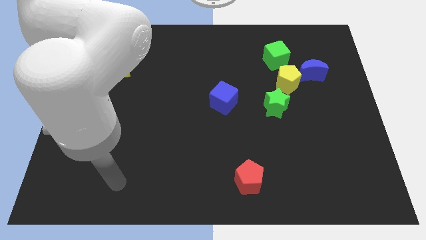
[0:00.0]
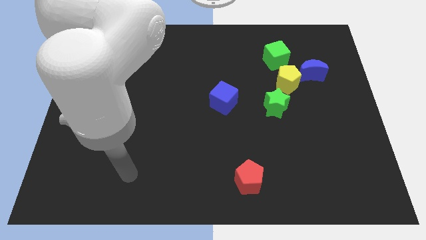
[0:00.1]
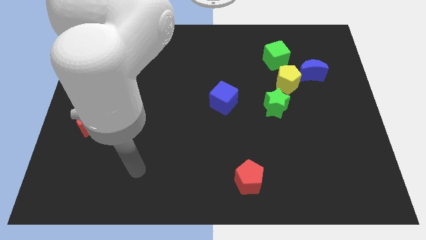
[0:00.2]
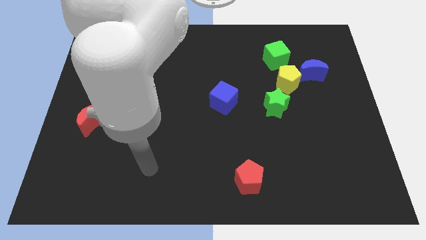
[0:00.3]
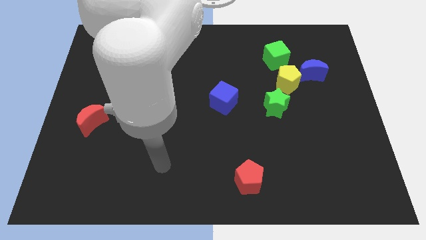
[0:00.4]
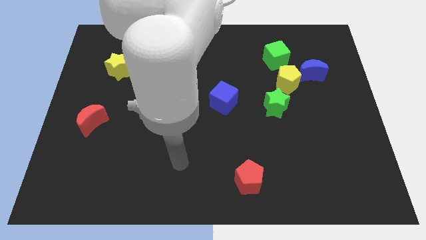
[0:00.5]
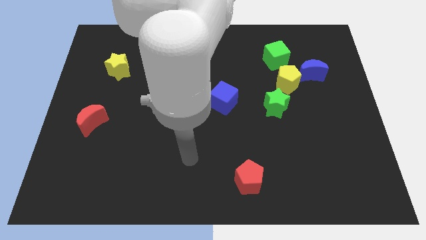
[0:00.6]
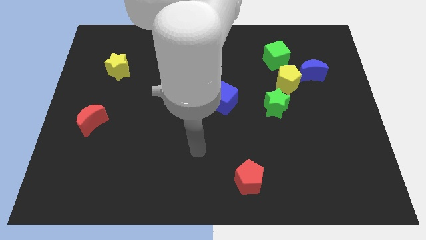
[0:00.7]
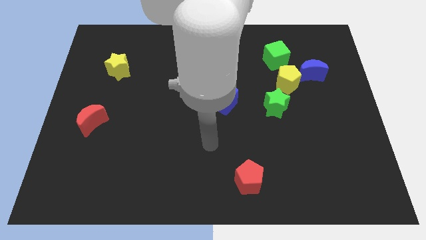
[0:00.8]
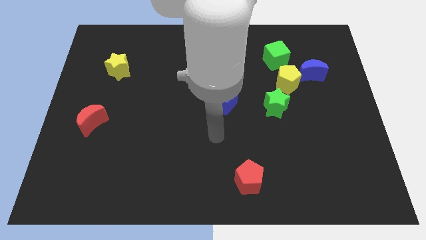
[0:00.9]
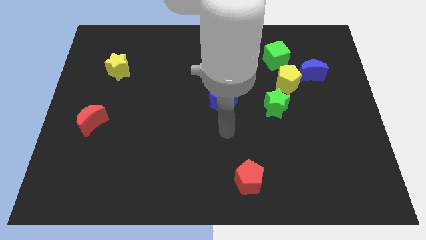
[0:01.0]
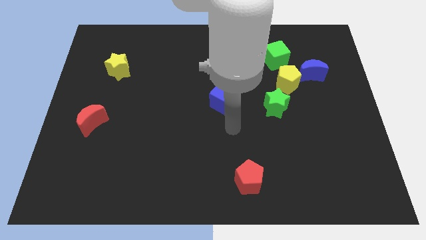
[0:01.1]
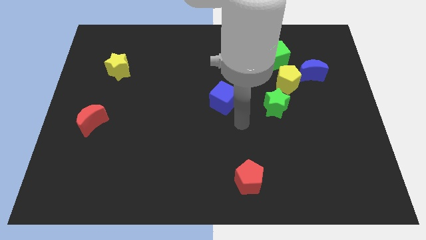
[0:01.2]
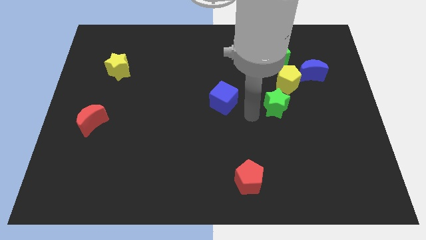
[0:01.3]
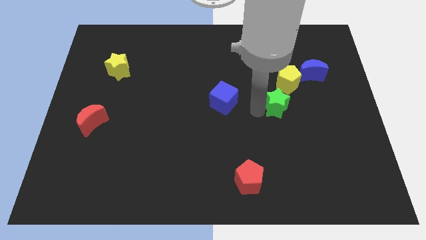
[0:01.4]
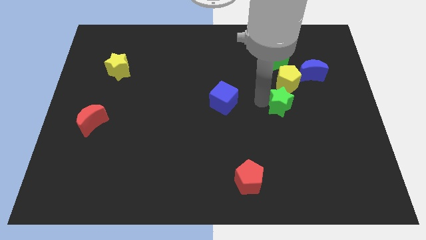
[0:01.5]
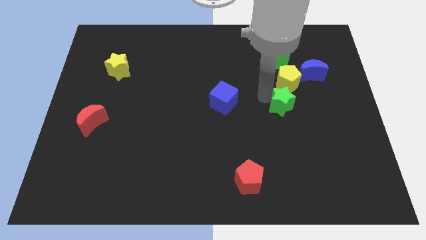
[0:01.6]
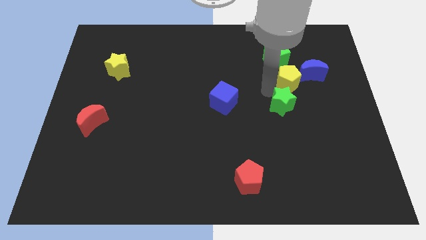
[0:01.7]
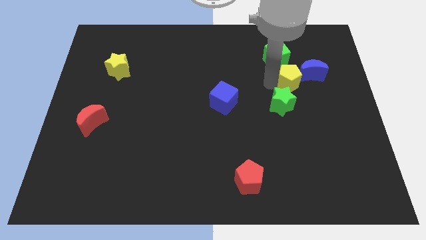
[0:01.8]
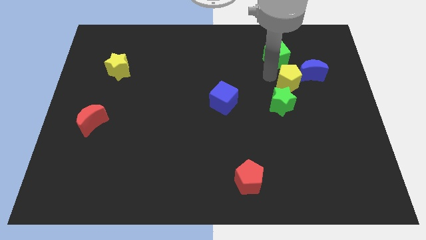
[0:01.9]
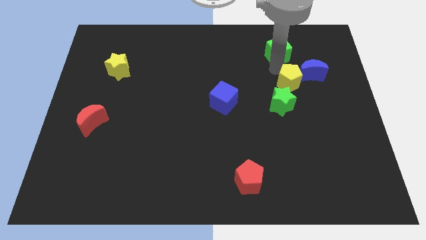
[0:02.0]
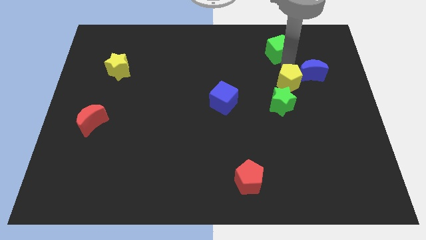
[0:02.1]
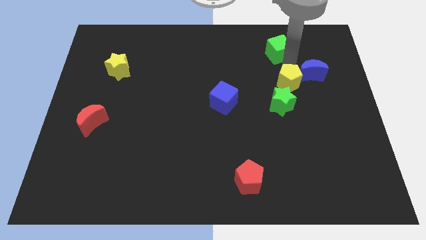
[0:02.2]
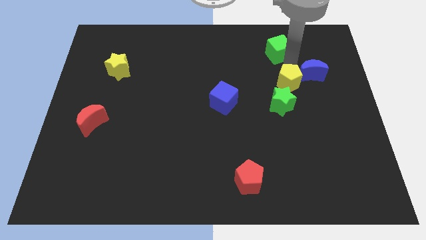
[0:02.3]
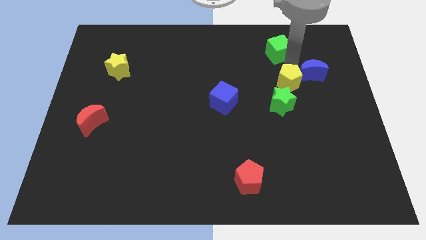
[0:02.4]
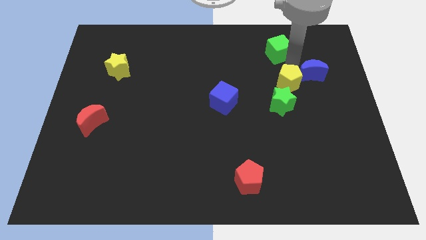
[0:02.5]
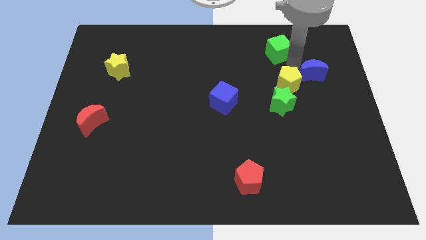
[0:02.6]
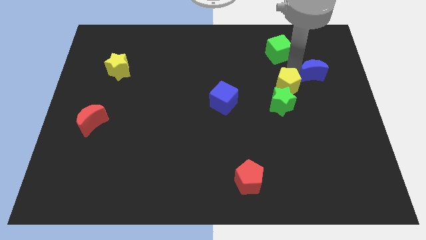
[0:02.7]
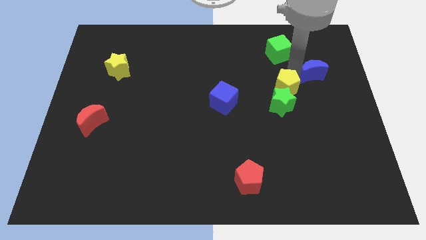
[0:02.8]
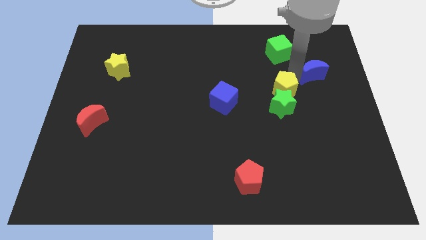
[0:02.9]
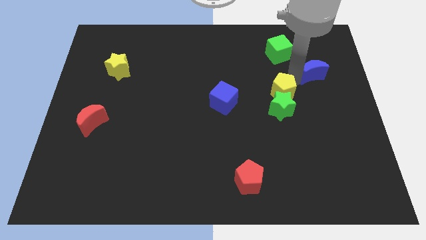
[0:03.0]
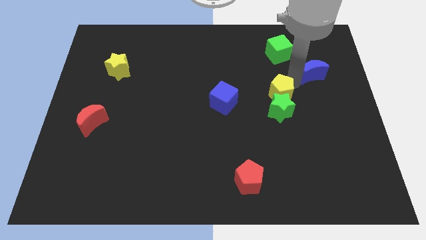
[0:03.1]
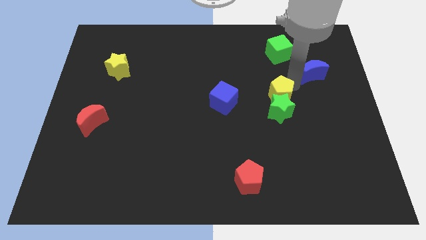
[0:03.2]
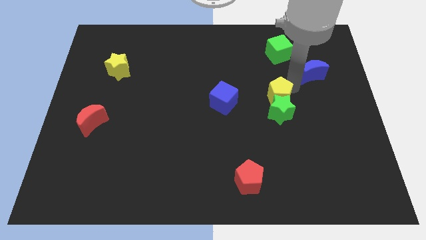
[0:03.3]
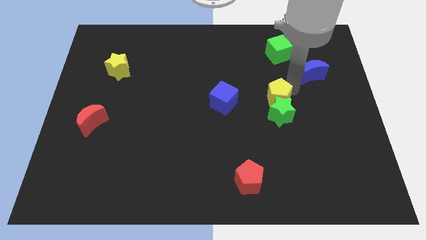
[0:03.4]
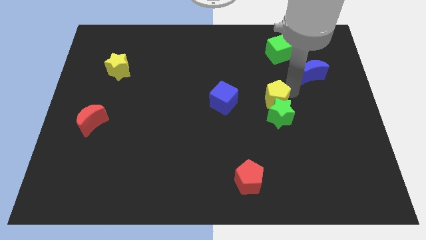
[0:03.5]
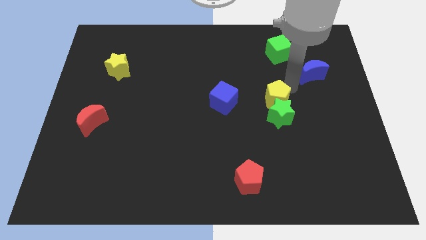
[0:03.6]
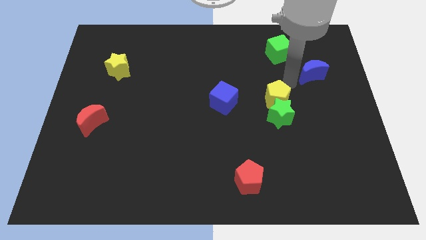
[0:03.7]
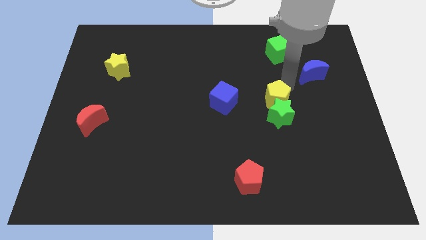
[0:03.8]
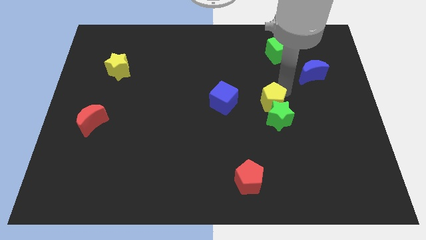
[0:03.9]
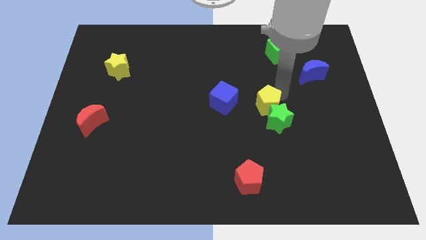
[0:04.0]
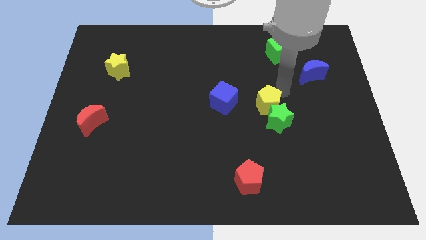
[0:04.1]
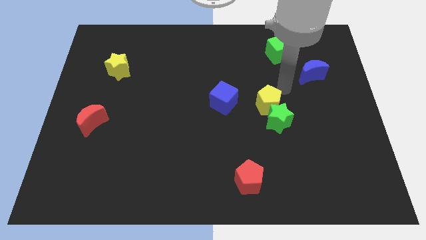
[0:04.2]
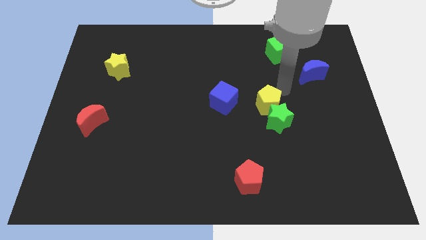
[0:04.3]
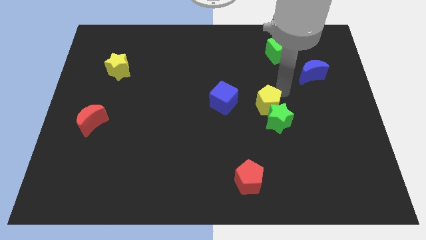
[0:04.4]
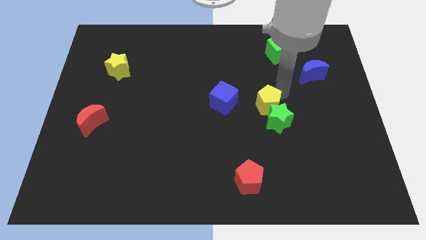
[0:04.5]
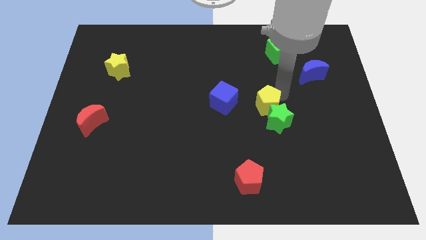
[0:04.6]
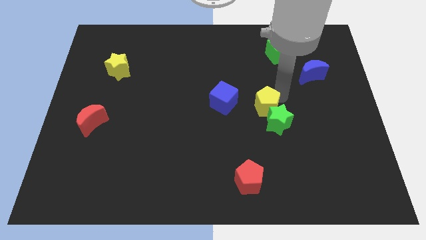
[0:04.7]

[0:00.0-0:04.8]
pull the yellow pentagon apart from the blue moon, green cube, and green star

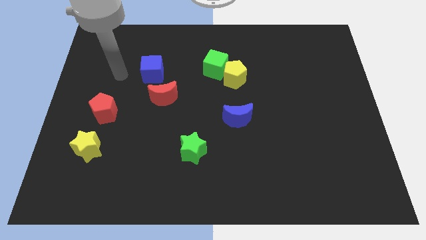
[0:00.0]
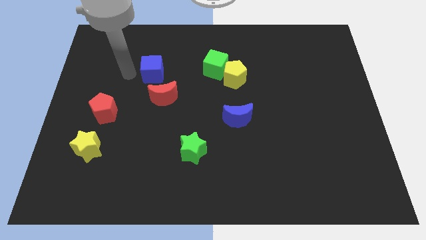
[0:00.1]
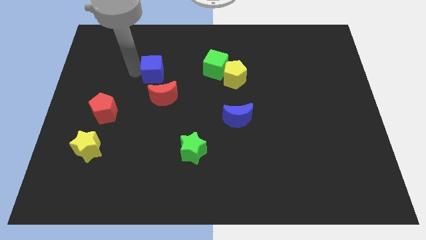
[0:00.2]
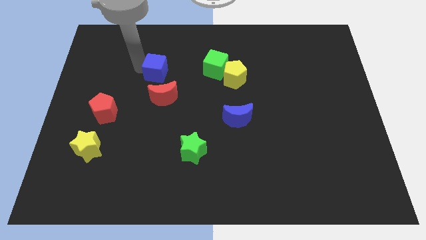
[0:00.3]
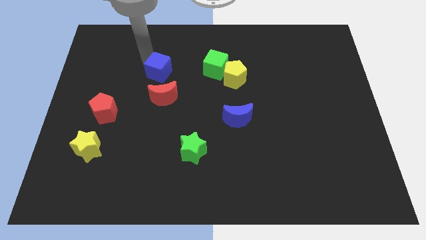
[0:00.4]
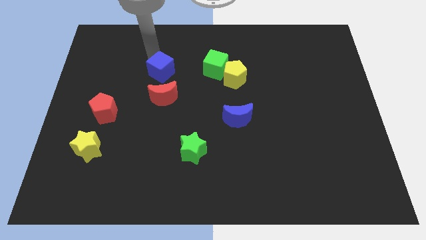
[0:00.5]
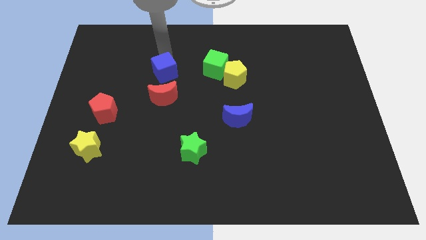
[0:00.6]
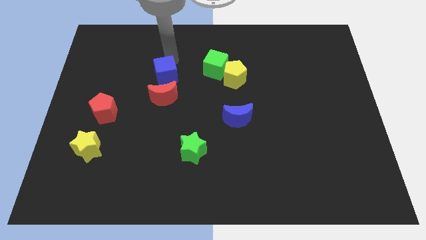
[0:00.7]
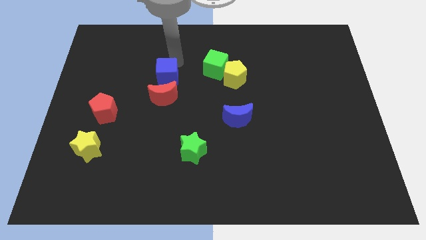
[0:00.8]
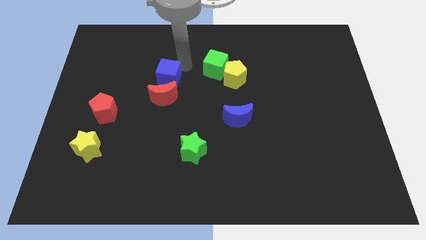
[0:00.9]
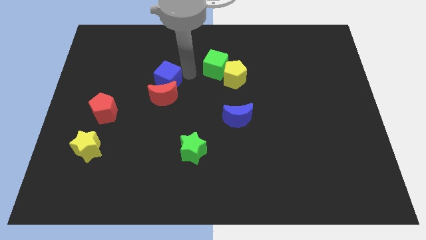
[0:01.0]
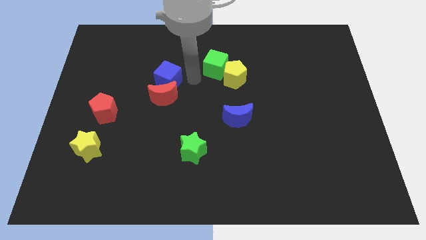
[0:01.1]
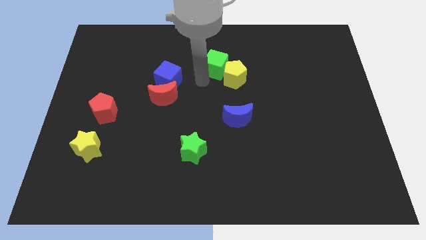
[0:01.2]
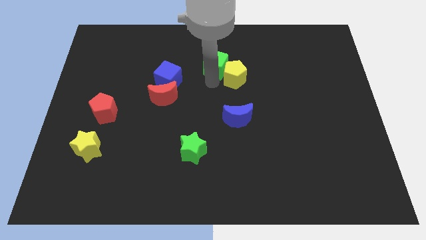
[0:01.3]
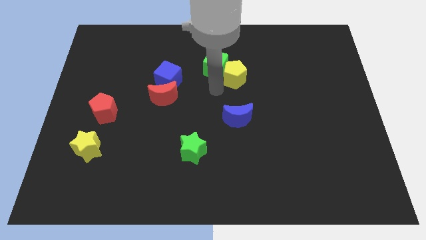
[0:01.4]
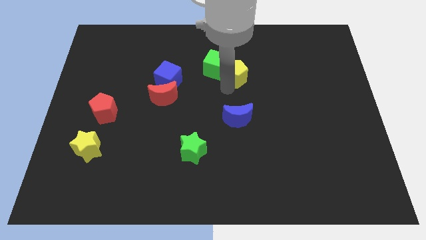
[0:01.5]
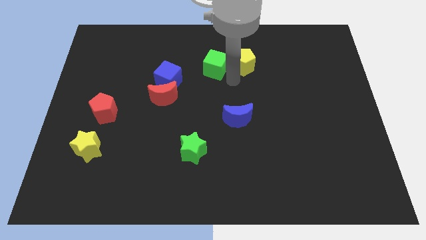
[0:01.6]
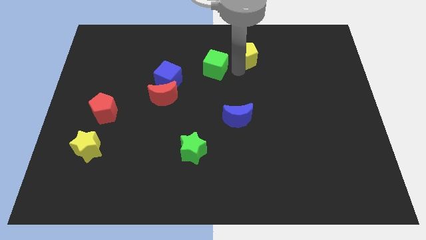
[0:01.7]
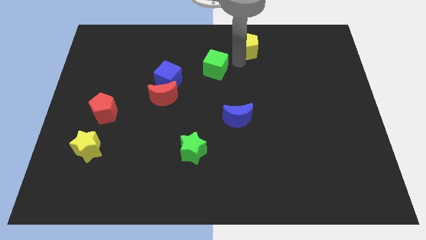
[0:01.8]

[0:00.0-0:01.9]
pull the green cube apart from the yellow pentagon

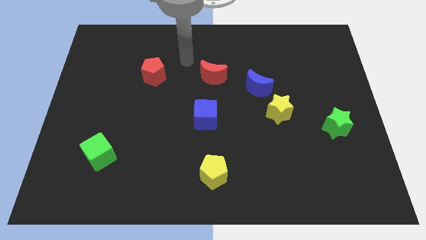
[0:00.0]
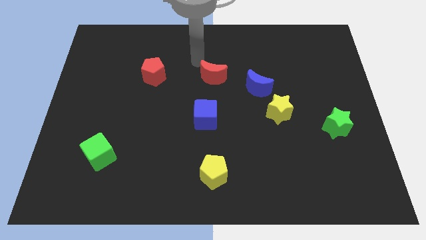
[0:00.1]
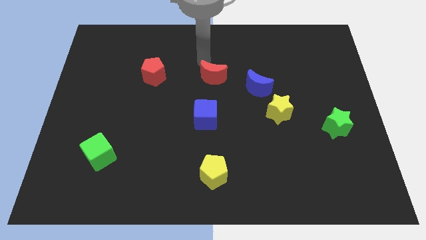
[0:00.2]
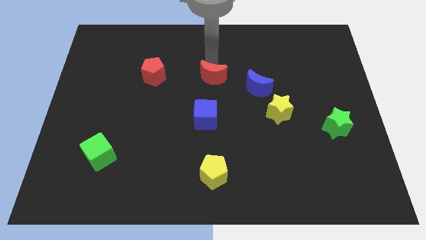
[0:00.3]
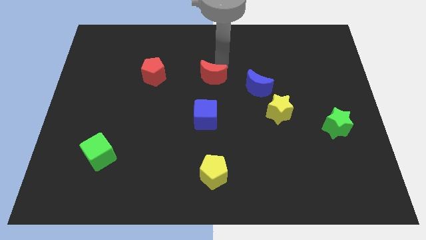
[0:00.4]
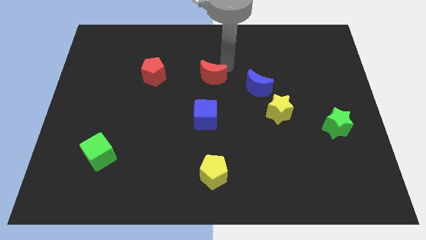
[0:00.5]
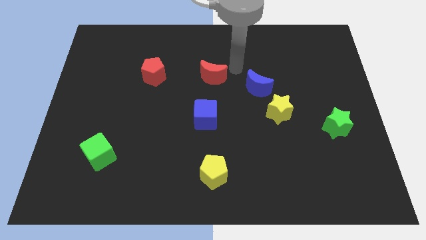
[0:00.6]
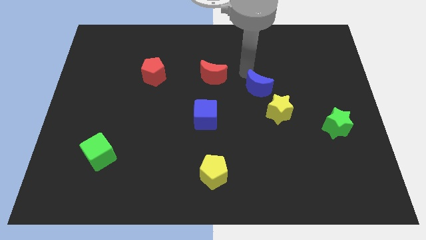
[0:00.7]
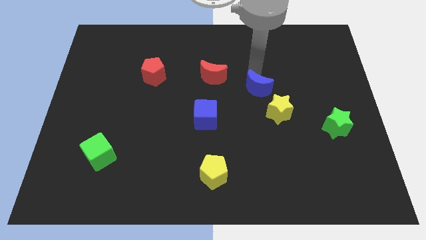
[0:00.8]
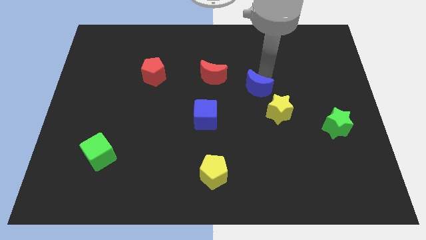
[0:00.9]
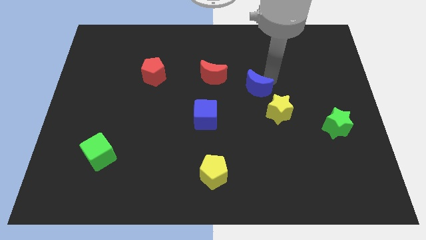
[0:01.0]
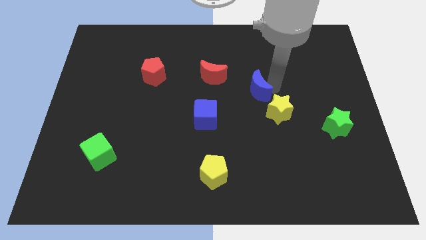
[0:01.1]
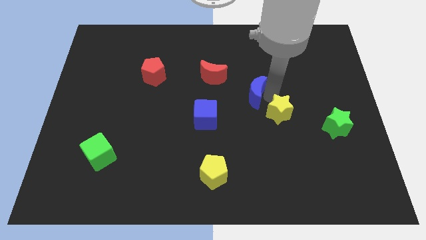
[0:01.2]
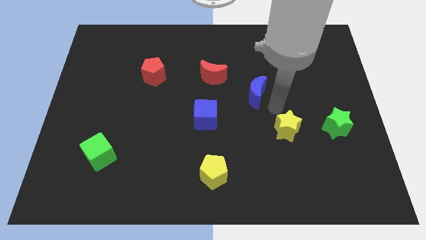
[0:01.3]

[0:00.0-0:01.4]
separate the blue moon from the yellow star

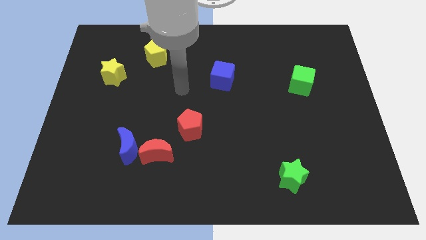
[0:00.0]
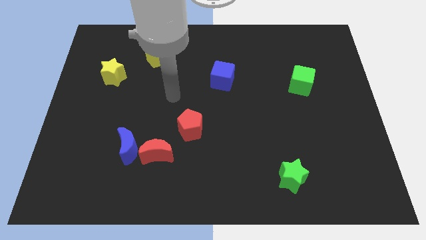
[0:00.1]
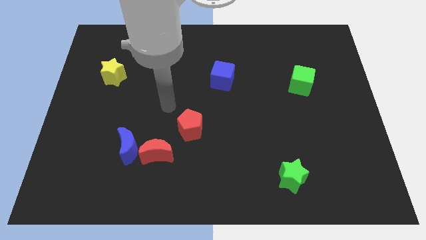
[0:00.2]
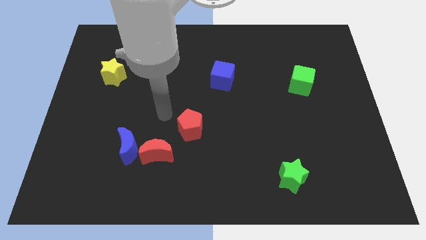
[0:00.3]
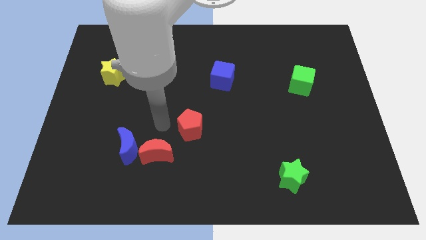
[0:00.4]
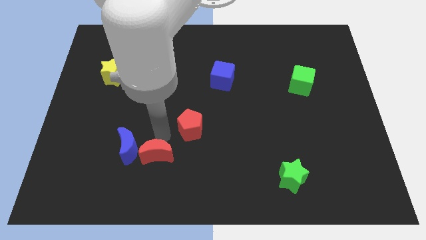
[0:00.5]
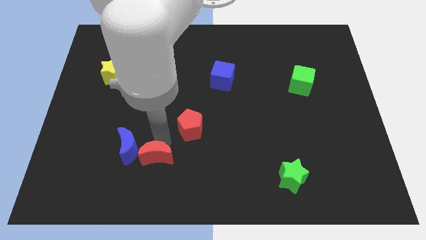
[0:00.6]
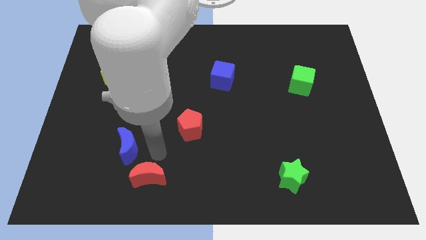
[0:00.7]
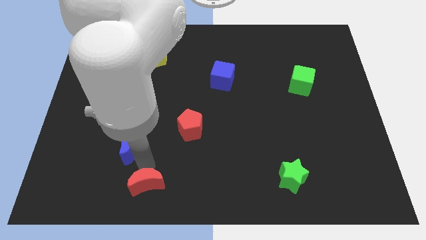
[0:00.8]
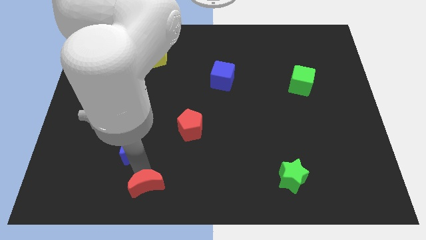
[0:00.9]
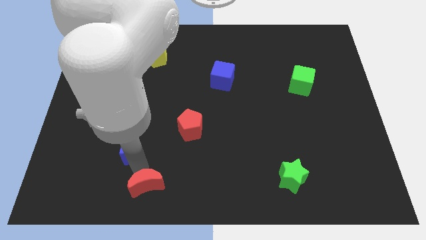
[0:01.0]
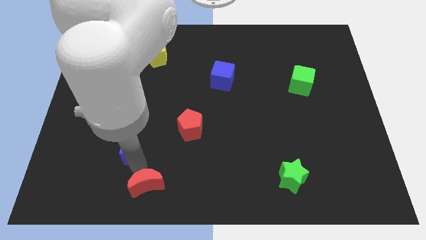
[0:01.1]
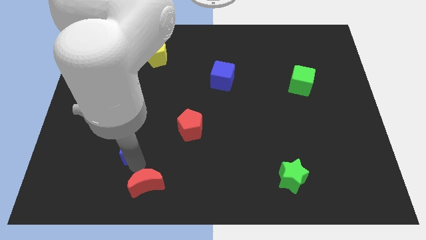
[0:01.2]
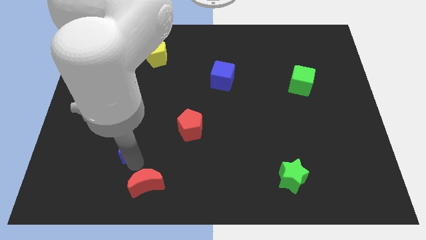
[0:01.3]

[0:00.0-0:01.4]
move the blue moon away from the red moon
